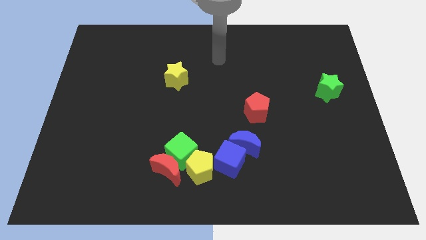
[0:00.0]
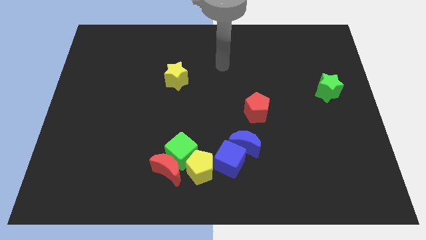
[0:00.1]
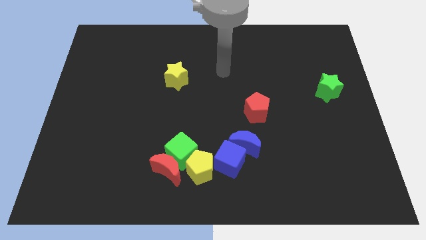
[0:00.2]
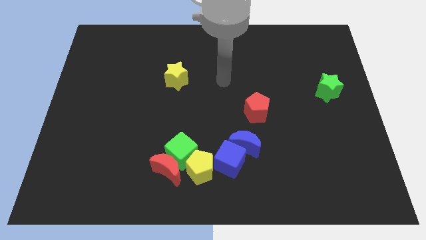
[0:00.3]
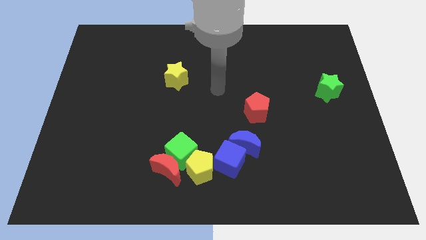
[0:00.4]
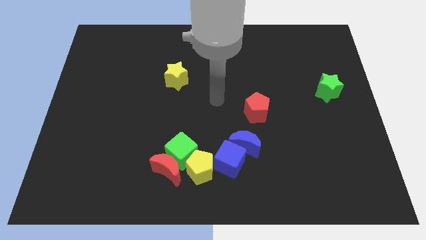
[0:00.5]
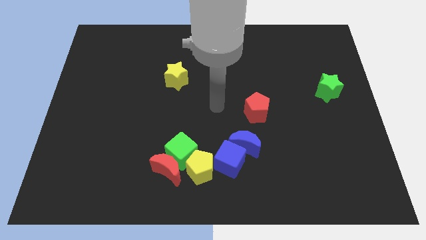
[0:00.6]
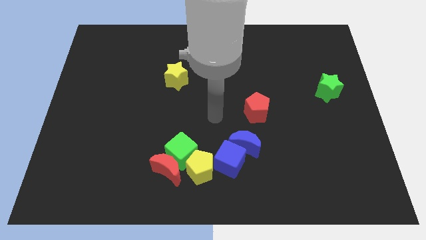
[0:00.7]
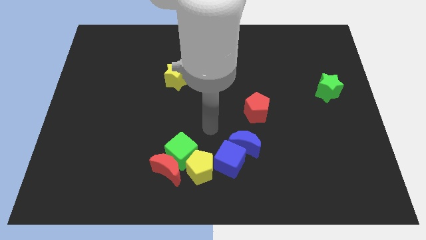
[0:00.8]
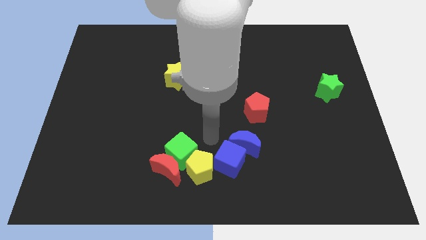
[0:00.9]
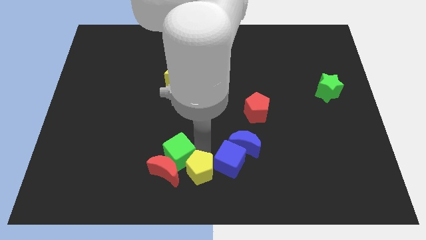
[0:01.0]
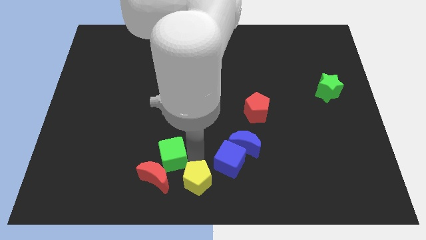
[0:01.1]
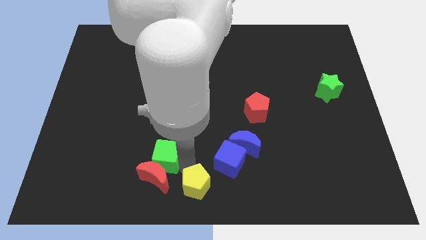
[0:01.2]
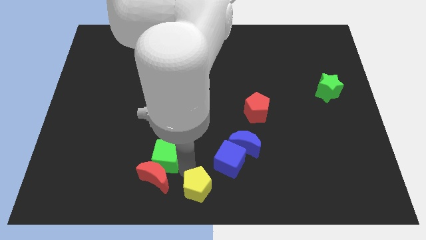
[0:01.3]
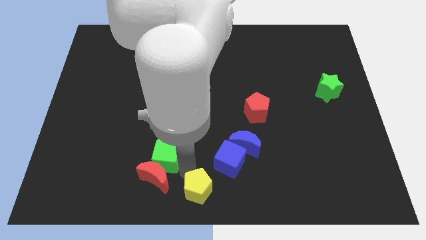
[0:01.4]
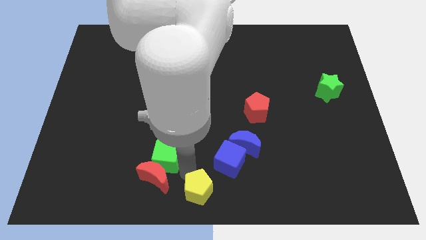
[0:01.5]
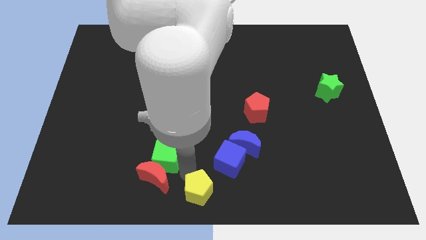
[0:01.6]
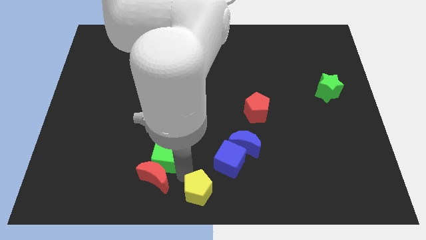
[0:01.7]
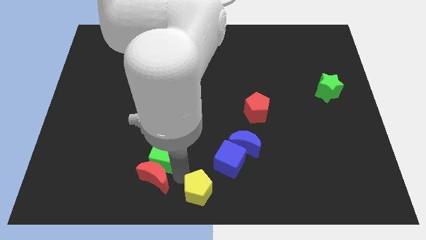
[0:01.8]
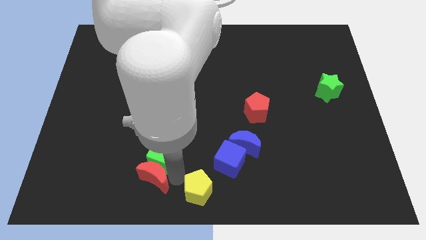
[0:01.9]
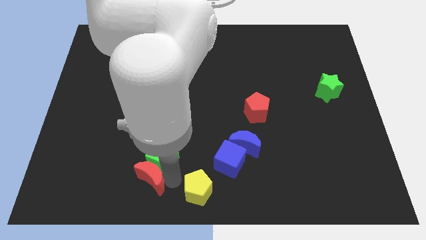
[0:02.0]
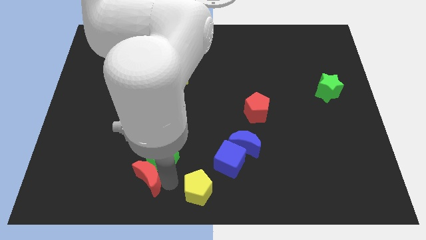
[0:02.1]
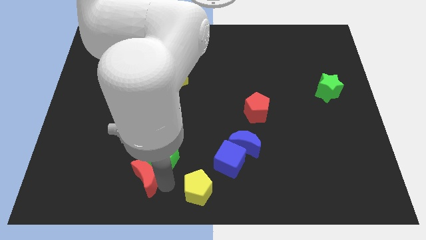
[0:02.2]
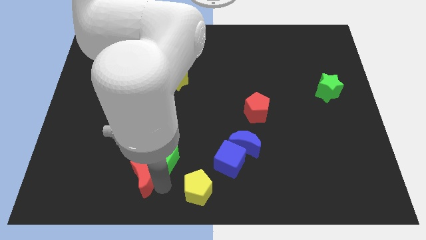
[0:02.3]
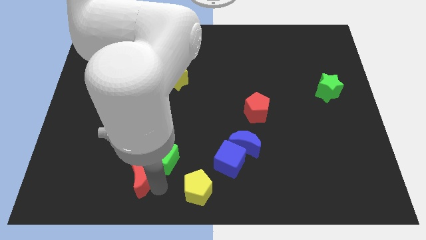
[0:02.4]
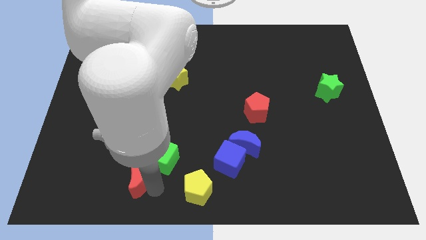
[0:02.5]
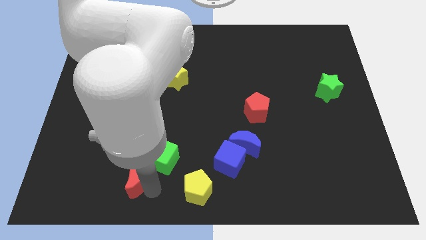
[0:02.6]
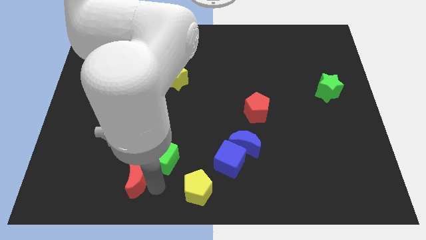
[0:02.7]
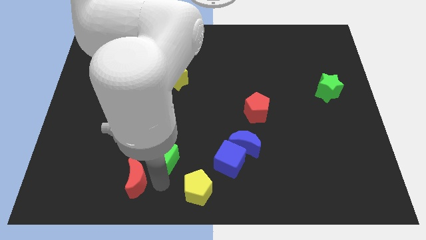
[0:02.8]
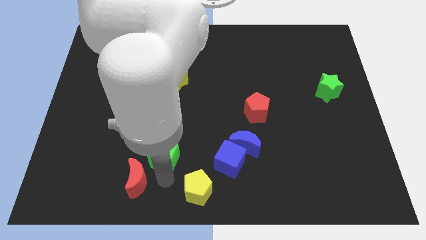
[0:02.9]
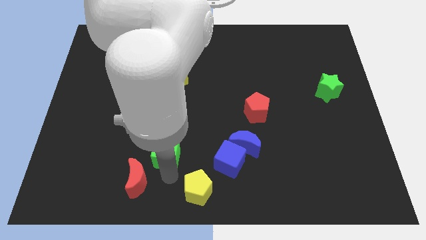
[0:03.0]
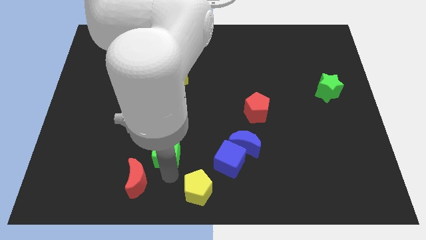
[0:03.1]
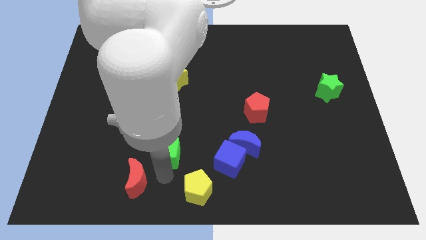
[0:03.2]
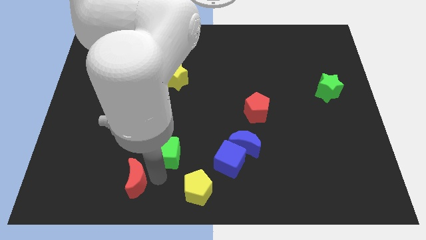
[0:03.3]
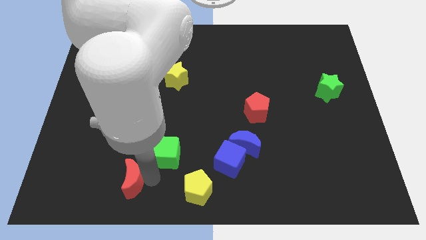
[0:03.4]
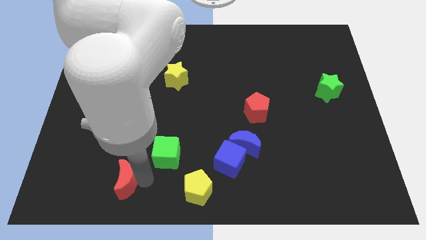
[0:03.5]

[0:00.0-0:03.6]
pull the red moon apart from the green cube and yellow pentagon

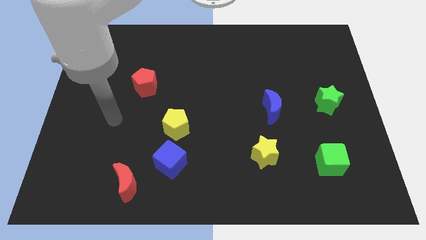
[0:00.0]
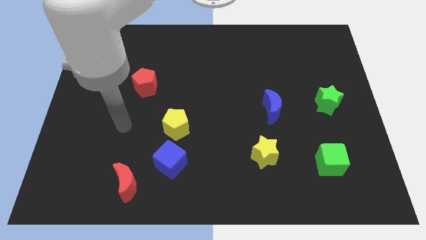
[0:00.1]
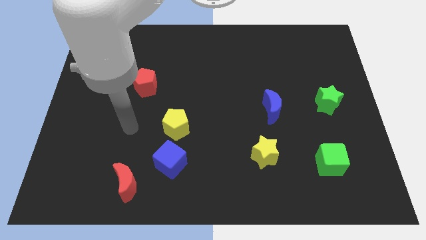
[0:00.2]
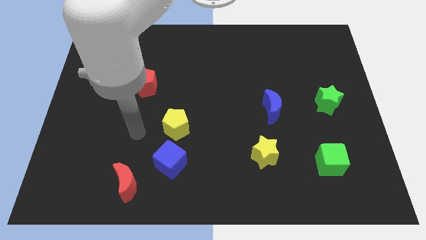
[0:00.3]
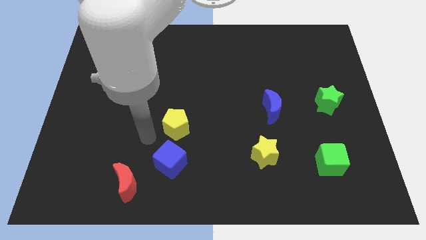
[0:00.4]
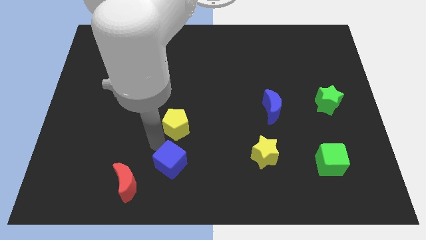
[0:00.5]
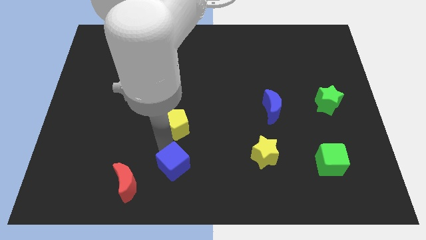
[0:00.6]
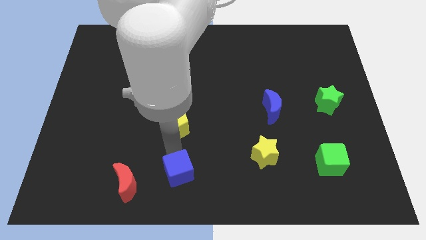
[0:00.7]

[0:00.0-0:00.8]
pull the yellow pentagon apart from the blue cube

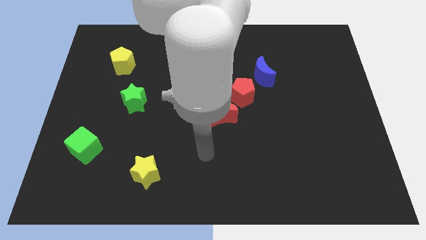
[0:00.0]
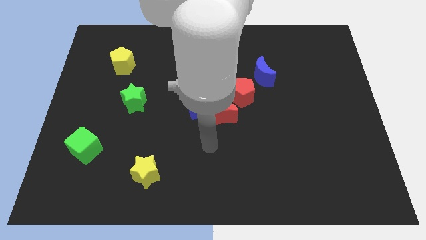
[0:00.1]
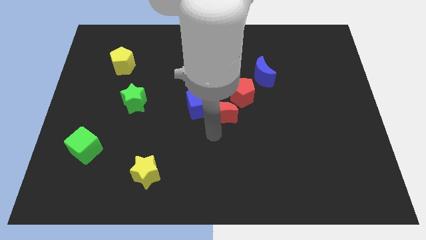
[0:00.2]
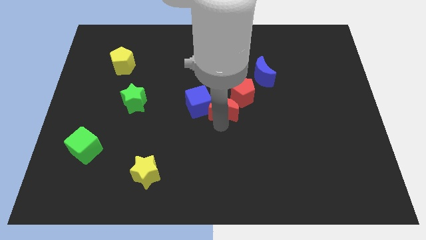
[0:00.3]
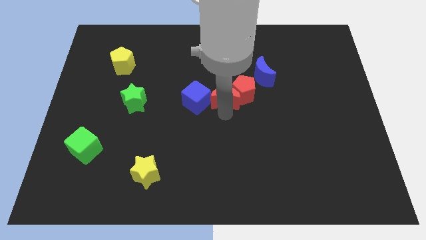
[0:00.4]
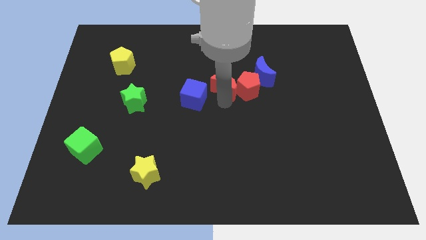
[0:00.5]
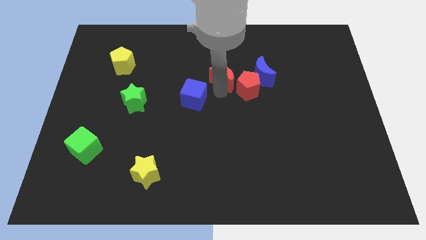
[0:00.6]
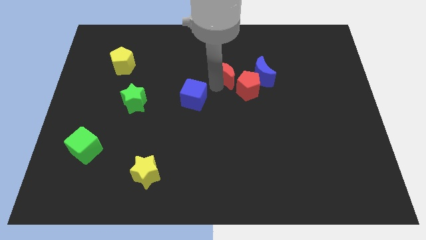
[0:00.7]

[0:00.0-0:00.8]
pull the blue cube apart from the red moon

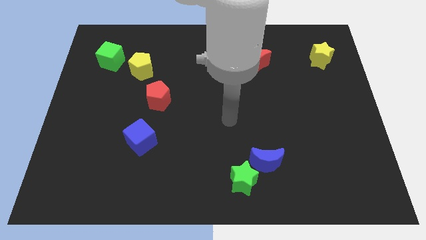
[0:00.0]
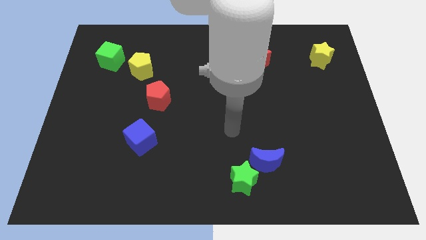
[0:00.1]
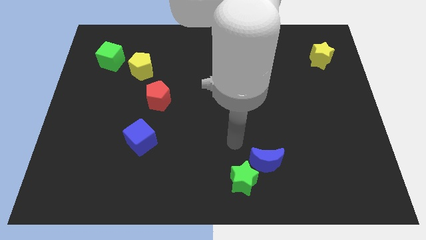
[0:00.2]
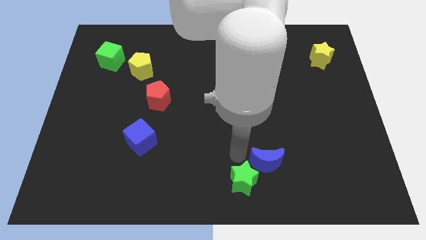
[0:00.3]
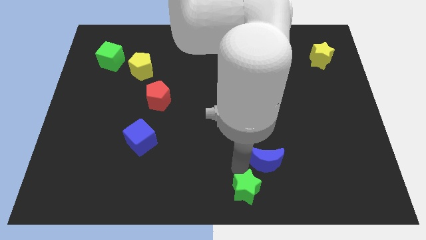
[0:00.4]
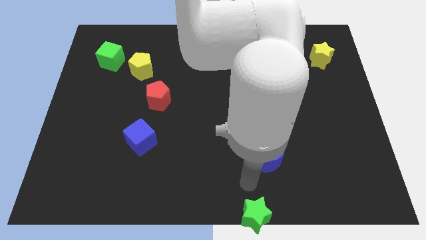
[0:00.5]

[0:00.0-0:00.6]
move the blue moon away from the green star

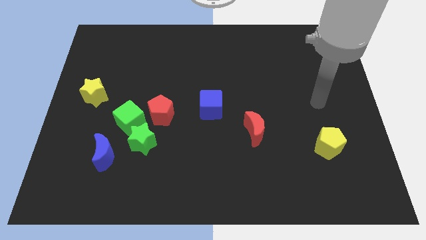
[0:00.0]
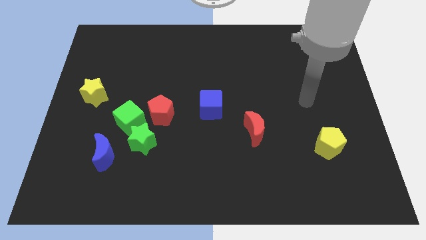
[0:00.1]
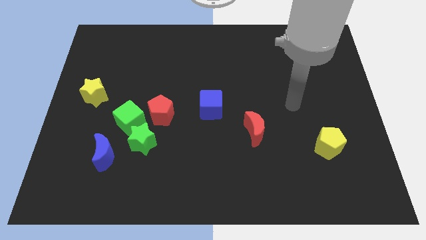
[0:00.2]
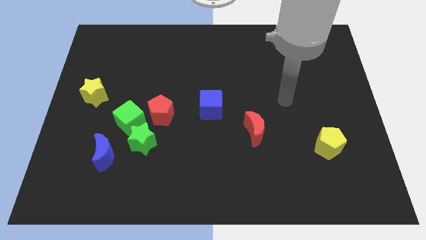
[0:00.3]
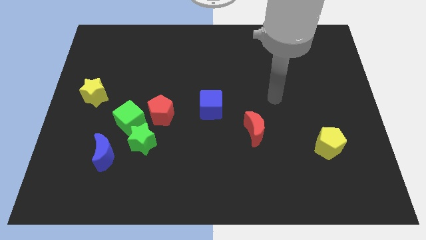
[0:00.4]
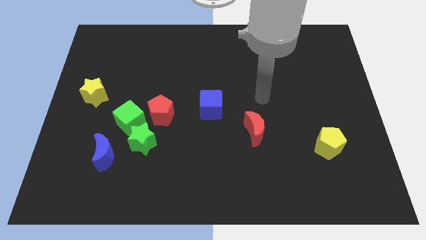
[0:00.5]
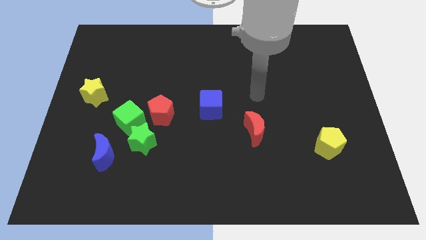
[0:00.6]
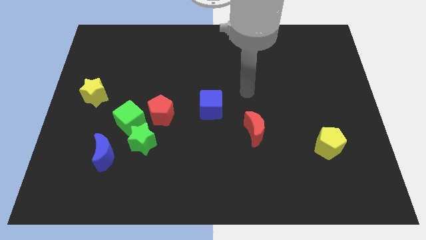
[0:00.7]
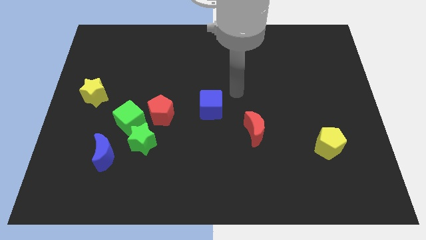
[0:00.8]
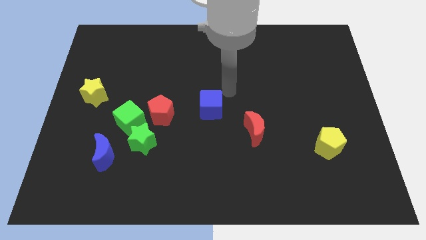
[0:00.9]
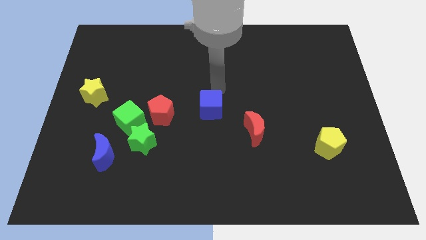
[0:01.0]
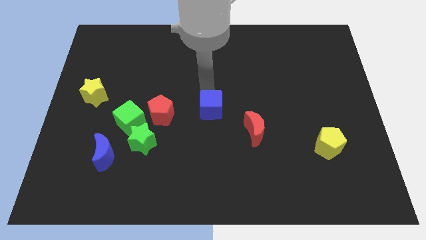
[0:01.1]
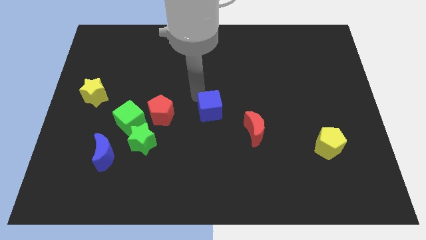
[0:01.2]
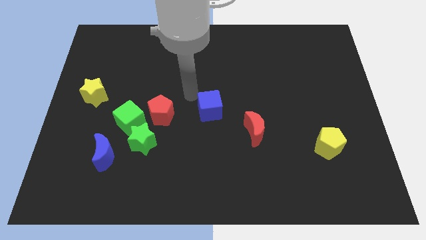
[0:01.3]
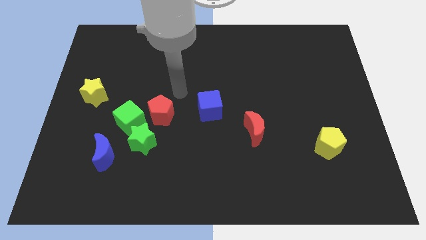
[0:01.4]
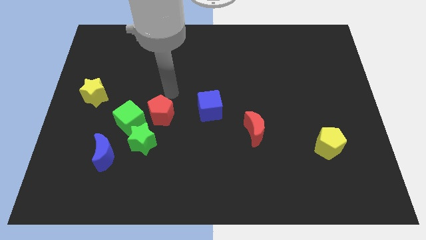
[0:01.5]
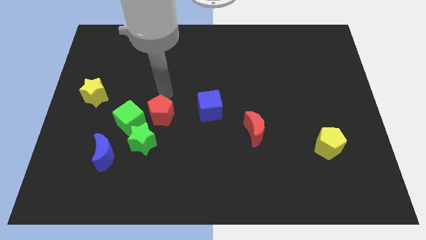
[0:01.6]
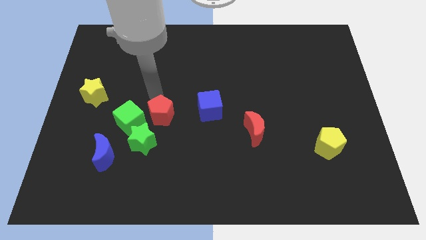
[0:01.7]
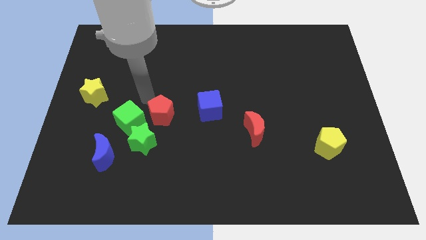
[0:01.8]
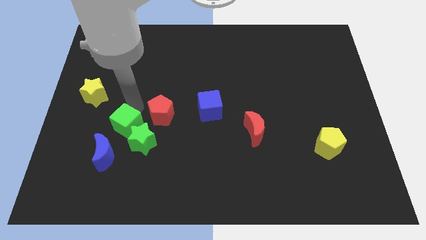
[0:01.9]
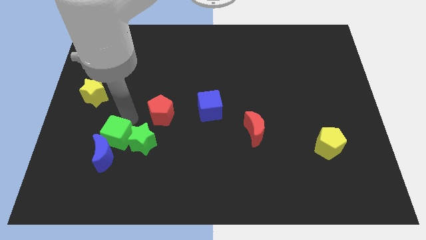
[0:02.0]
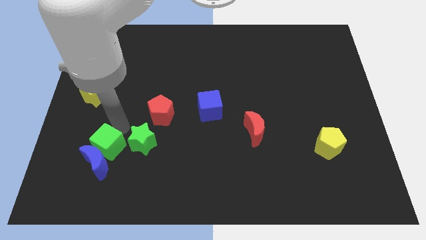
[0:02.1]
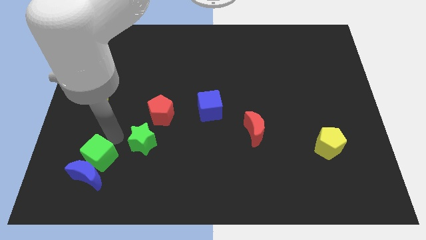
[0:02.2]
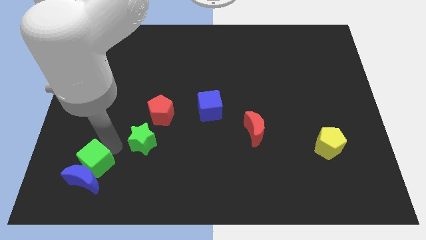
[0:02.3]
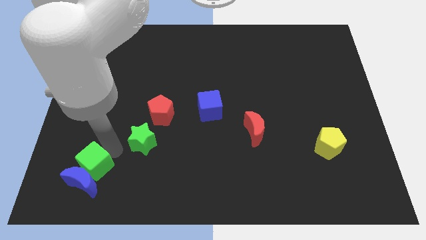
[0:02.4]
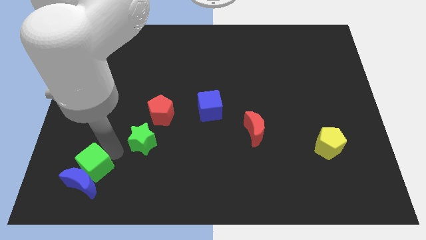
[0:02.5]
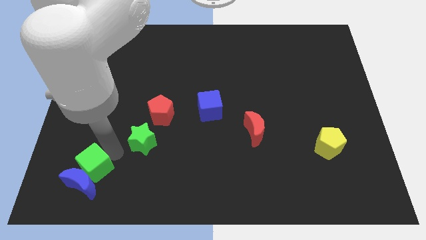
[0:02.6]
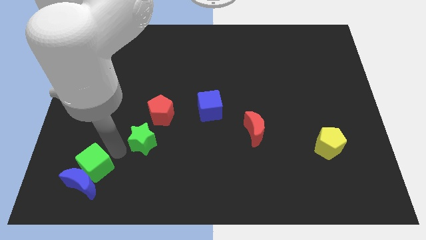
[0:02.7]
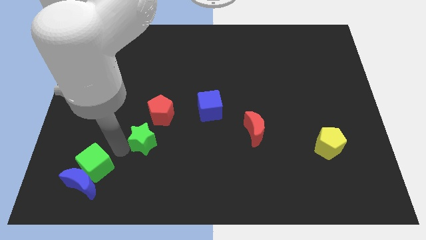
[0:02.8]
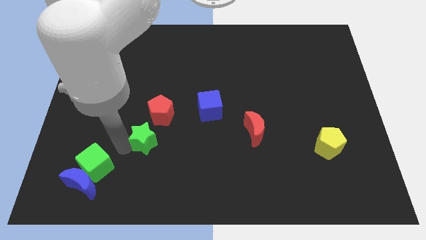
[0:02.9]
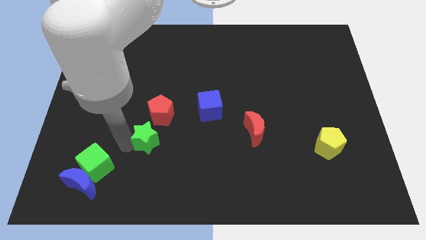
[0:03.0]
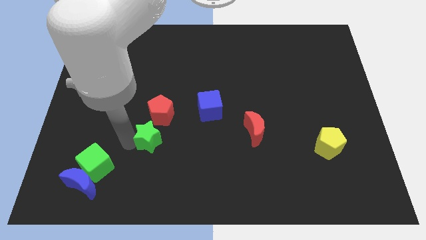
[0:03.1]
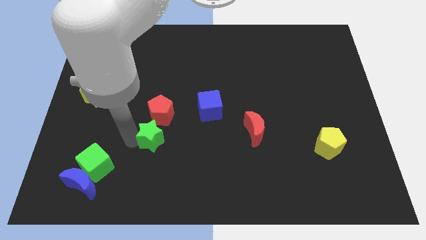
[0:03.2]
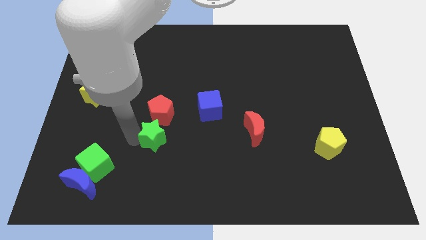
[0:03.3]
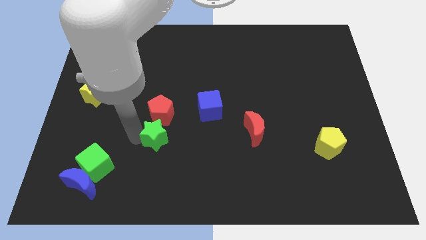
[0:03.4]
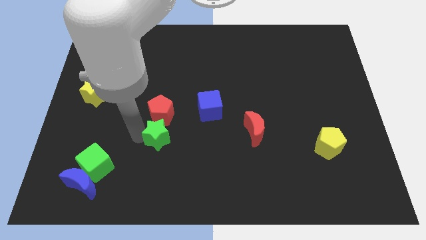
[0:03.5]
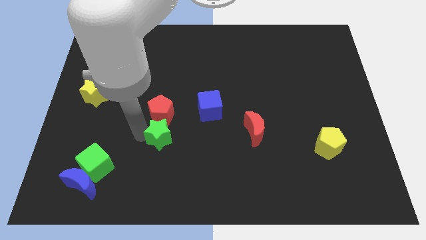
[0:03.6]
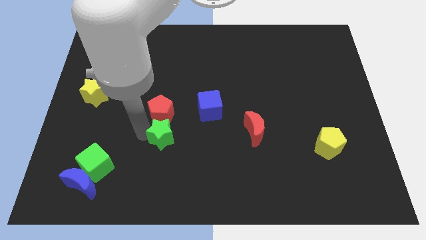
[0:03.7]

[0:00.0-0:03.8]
move the green star away from the clump
